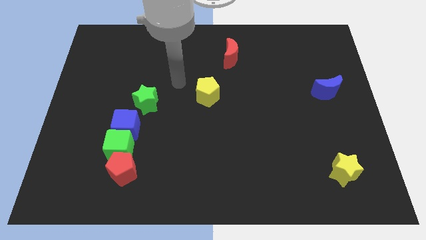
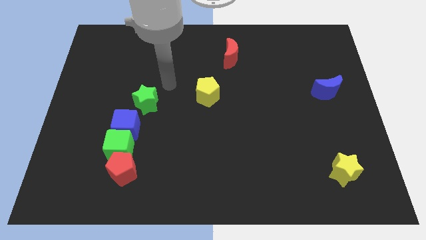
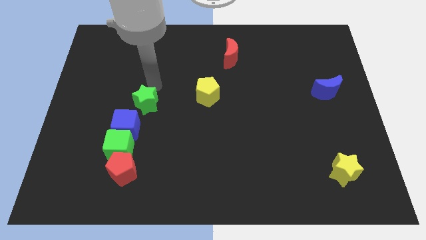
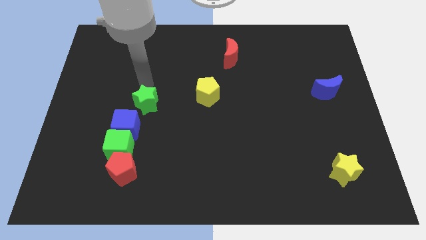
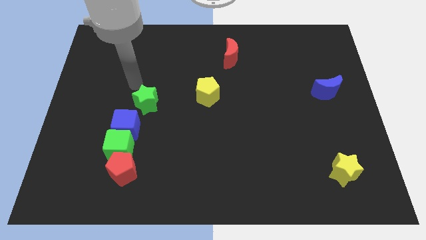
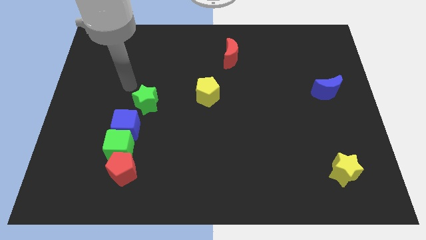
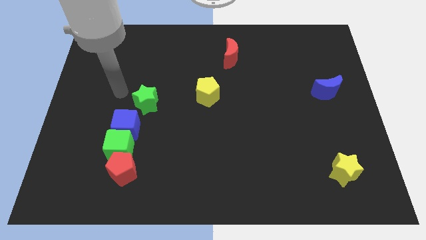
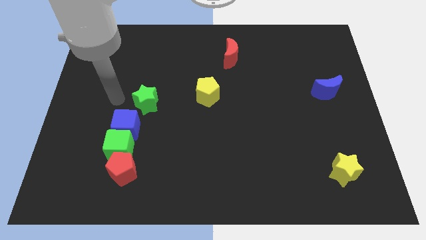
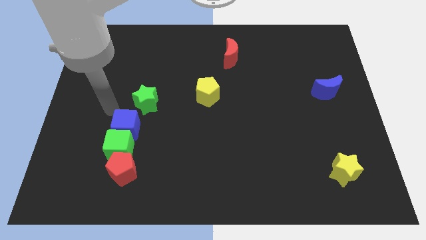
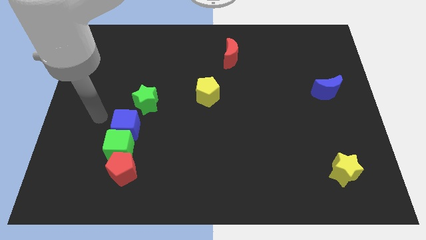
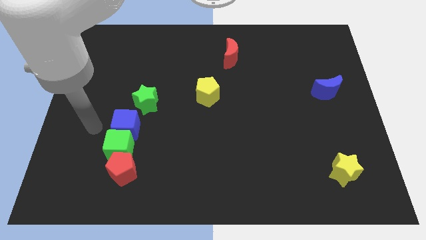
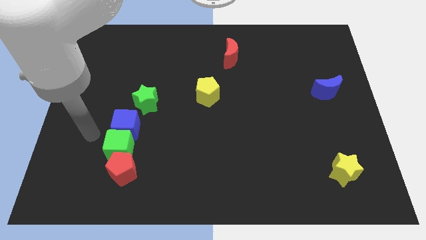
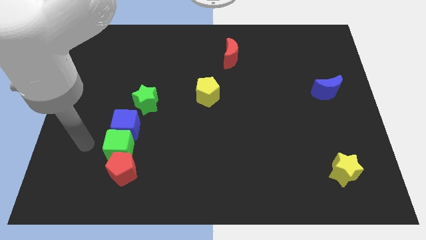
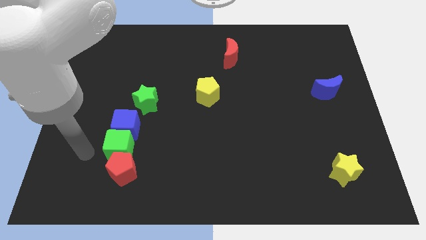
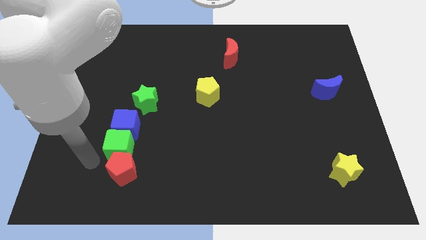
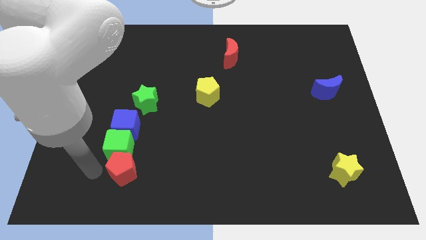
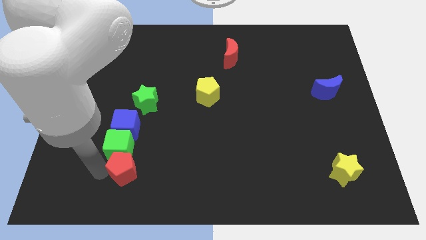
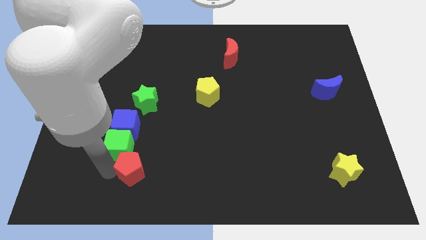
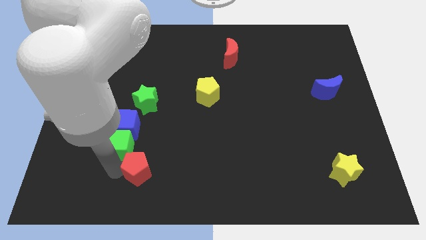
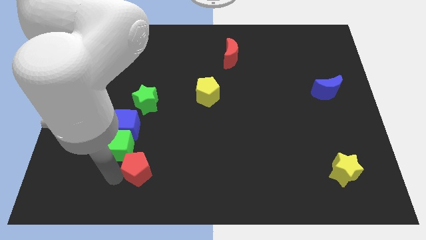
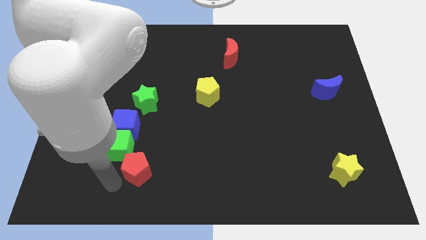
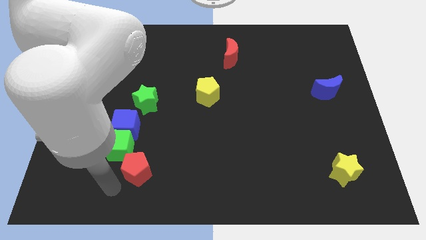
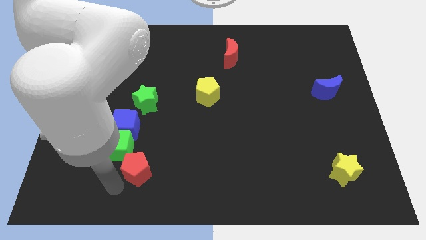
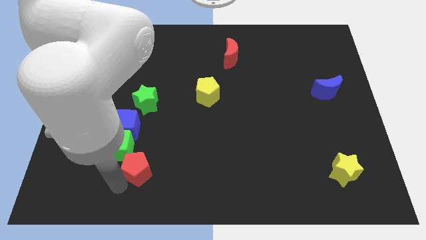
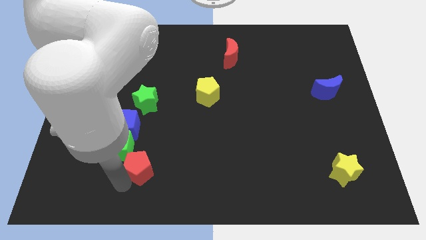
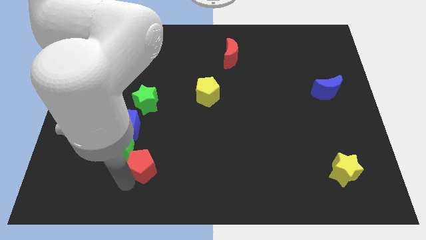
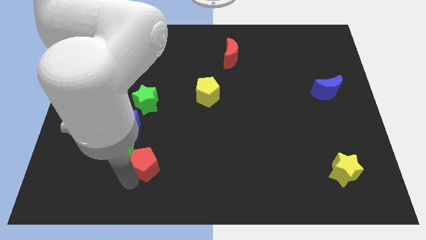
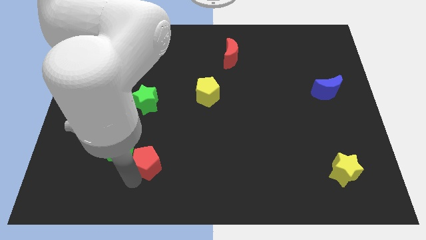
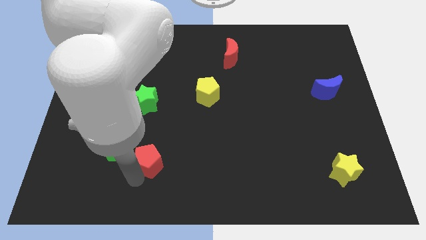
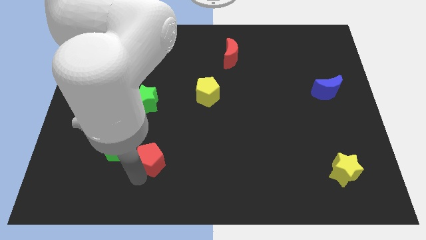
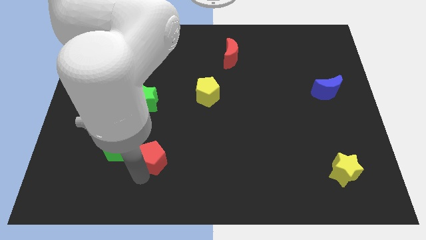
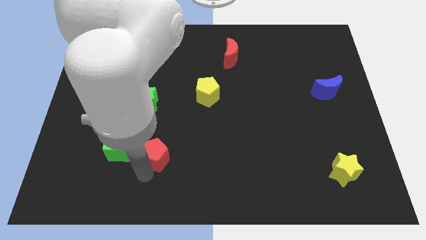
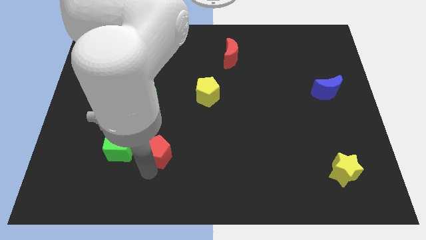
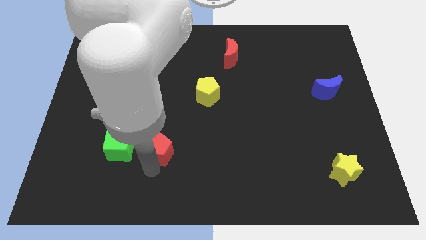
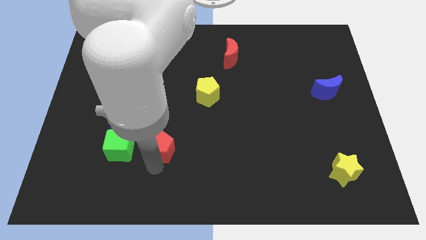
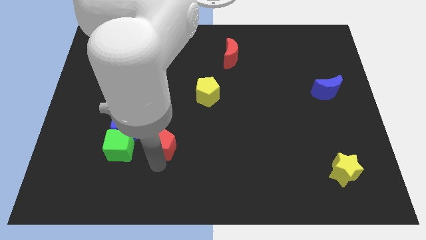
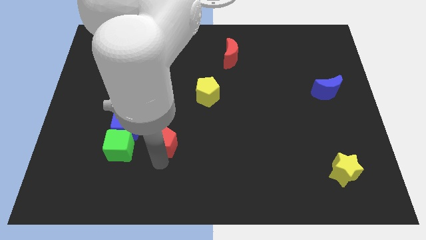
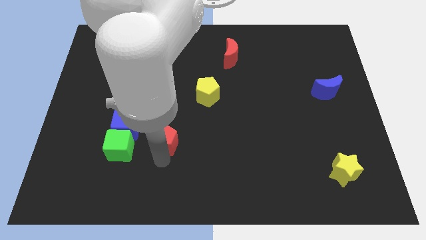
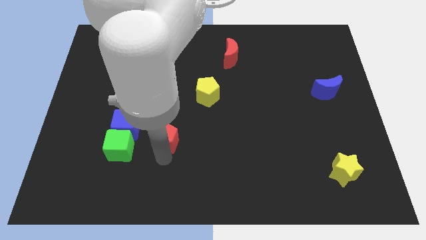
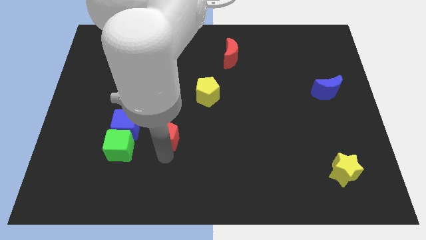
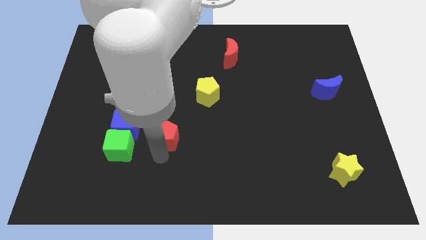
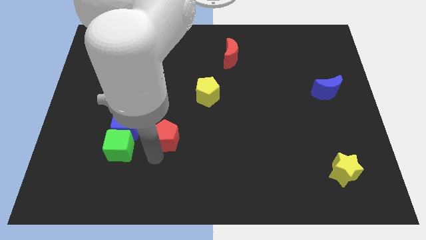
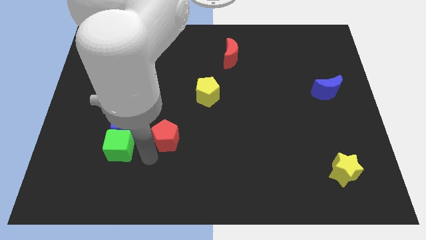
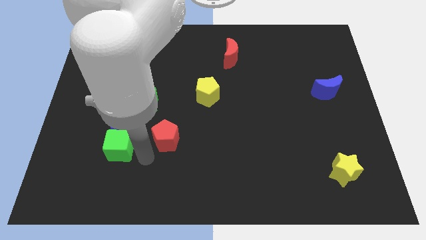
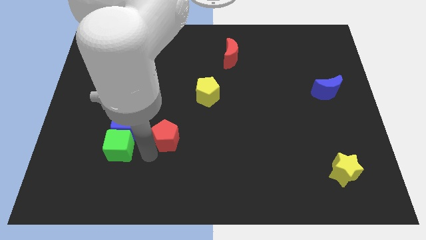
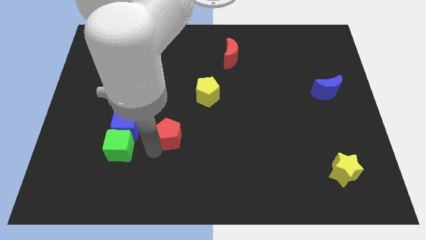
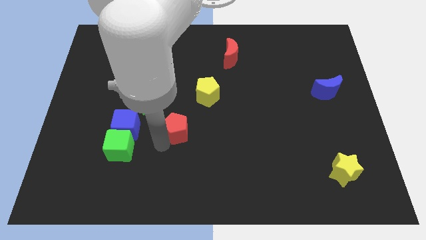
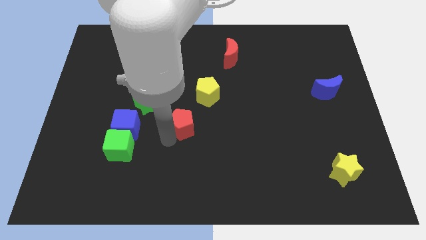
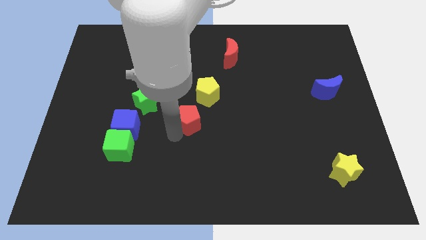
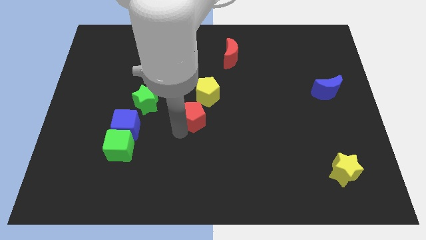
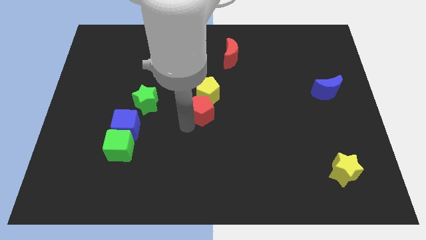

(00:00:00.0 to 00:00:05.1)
push the red pentagon towards the yellow pentagon

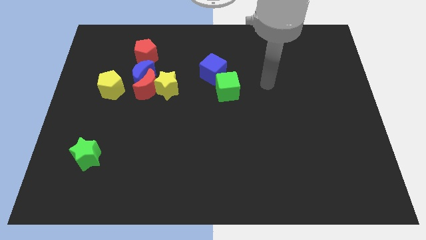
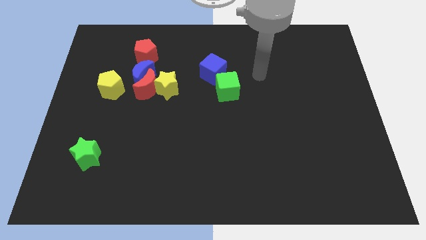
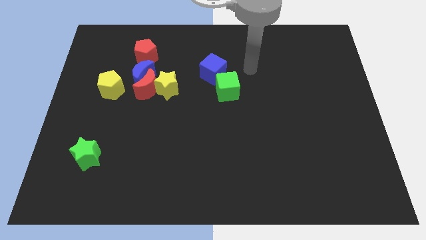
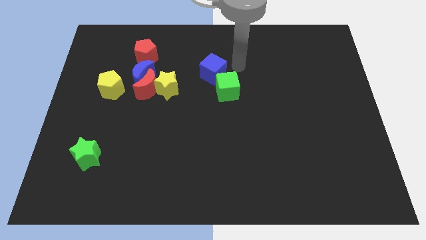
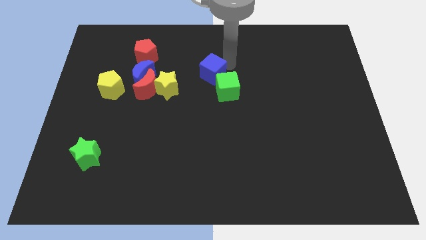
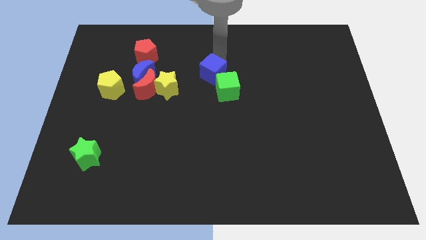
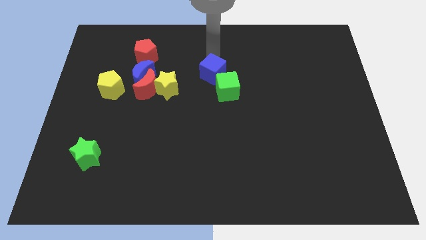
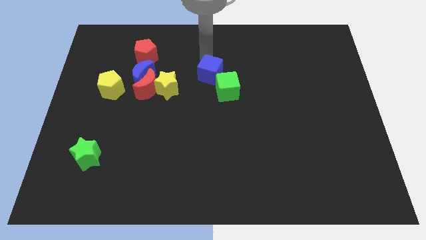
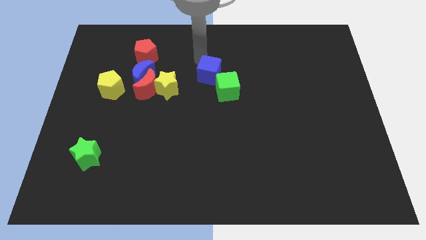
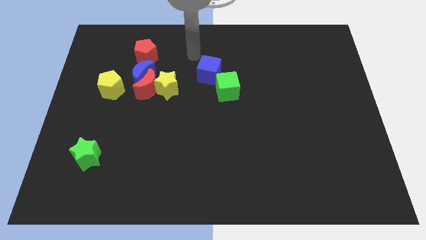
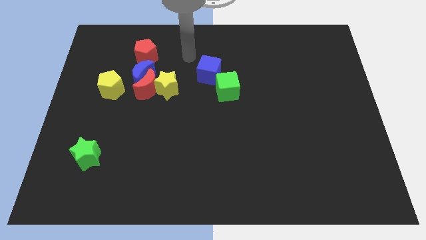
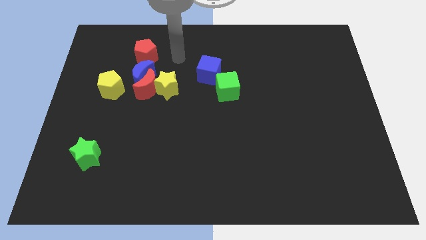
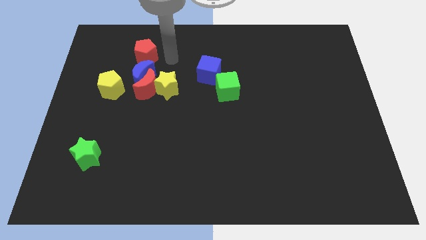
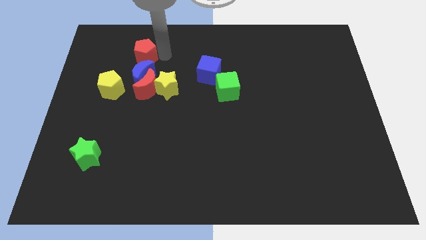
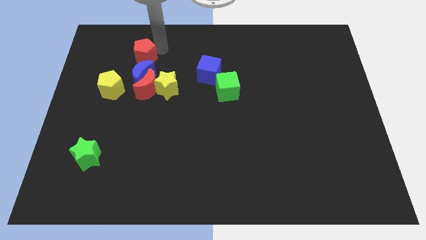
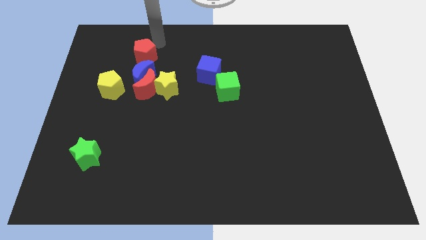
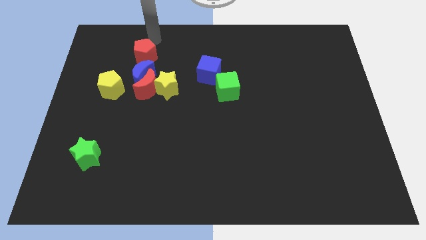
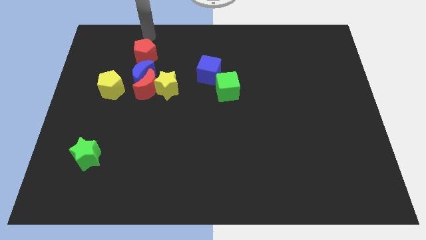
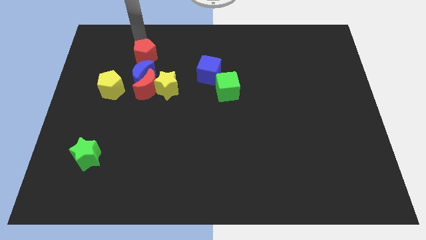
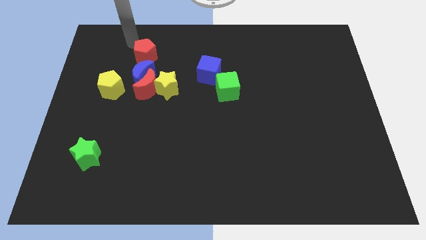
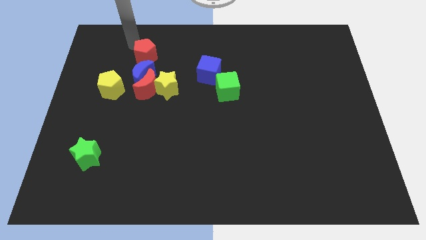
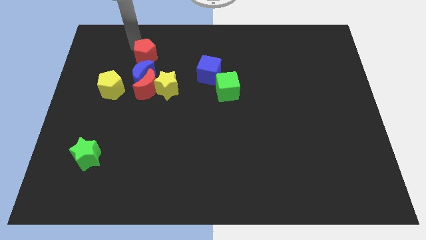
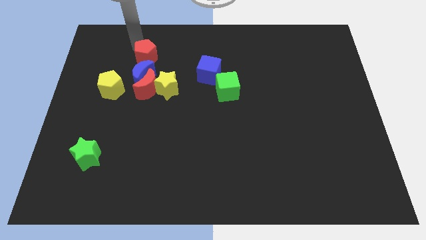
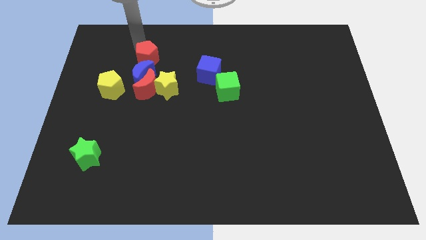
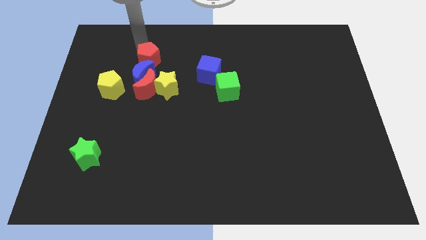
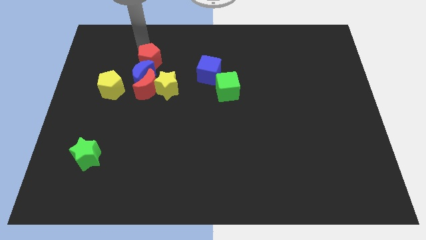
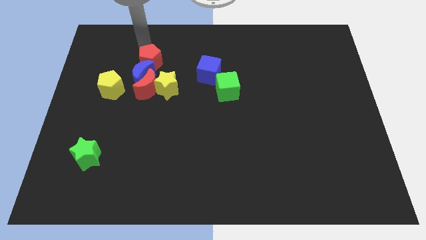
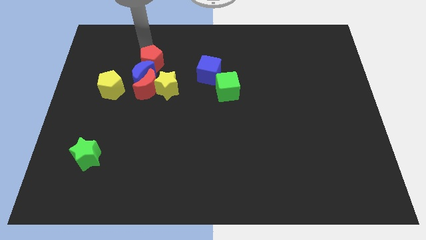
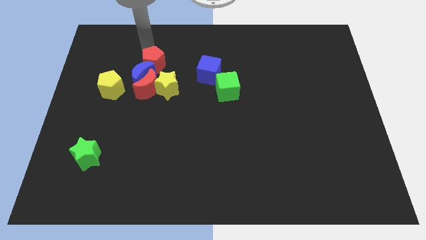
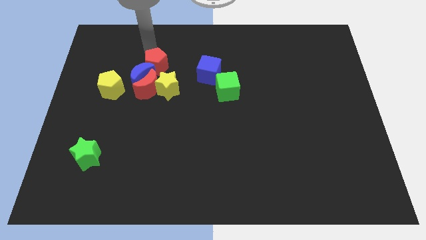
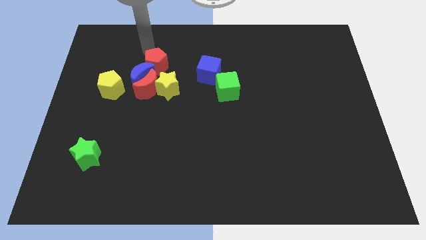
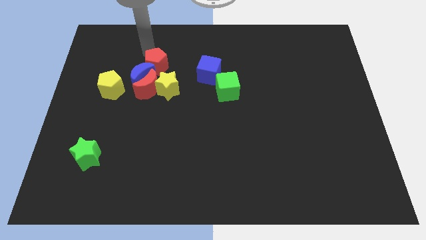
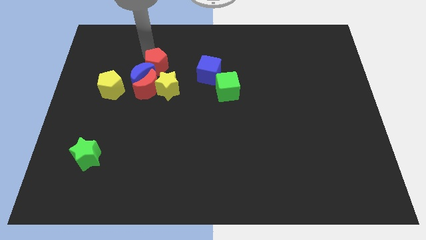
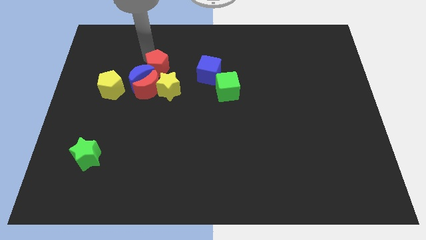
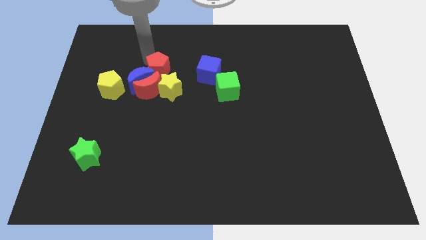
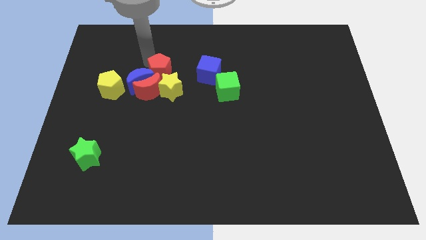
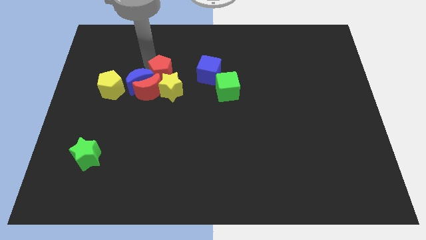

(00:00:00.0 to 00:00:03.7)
move the red pentagon towards the yellow star
